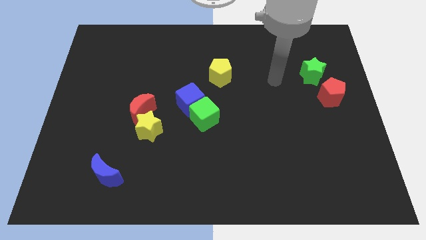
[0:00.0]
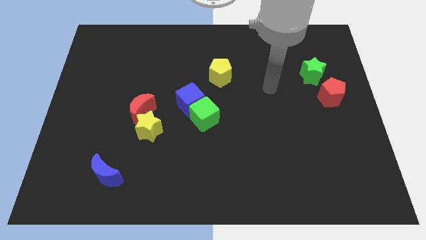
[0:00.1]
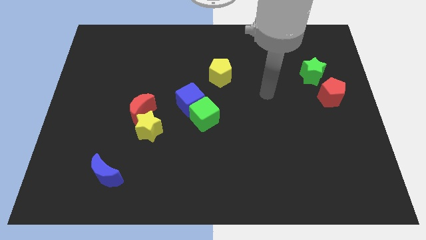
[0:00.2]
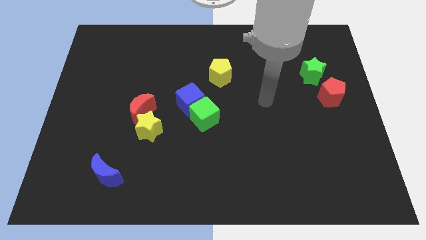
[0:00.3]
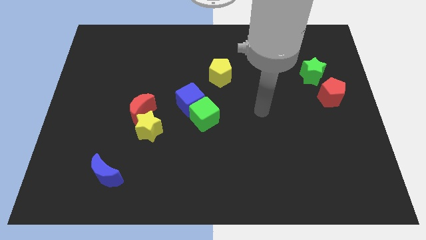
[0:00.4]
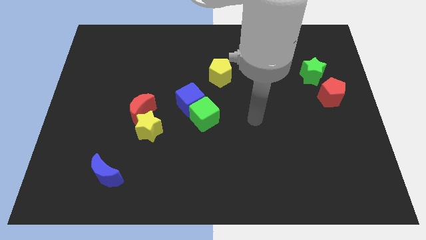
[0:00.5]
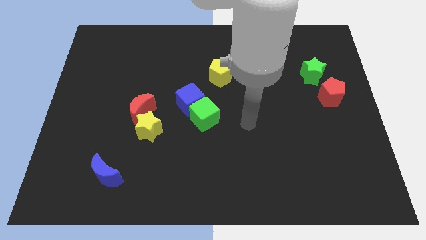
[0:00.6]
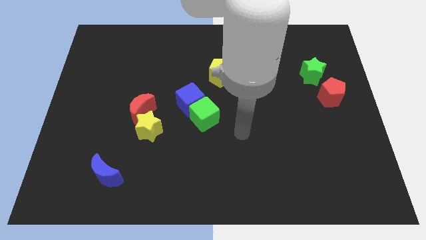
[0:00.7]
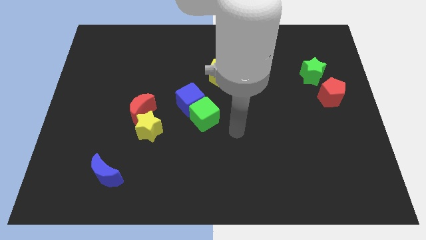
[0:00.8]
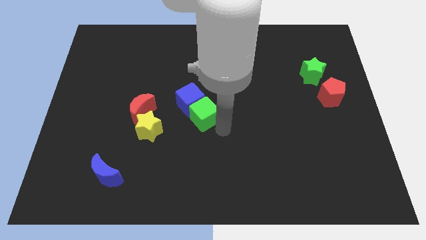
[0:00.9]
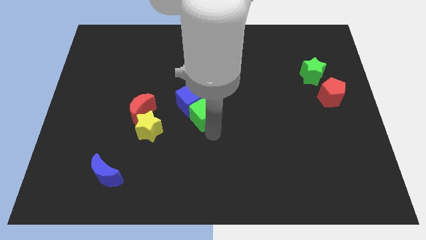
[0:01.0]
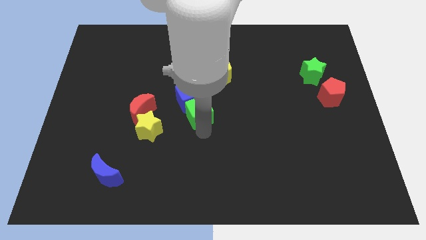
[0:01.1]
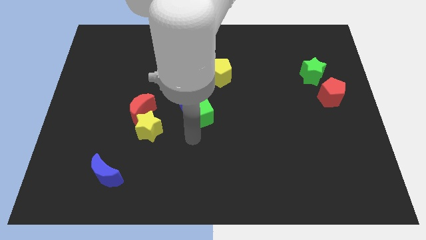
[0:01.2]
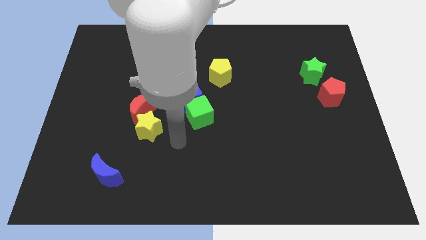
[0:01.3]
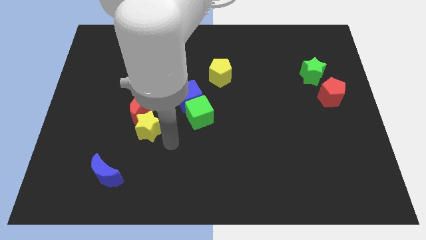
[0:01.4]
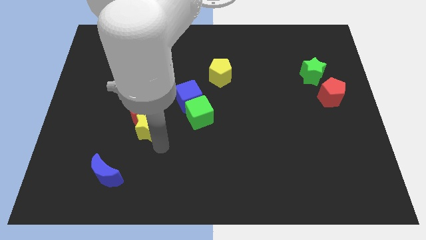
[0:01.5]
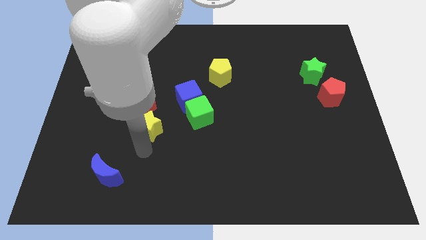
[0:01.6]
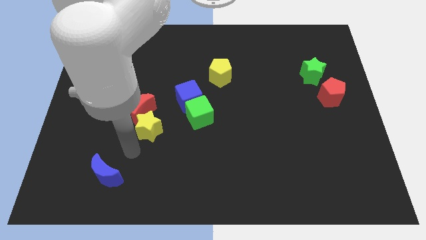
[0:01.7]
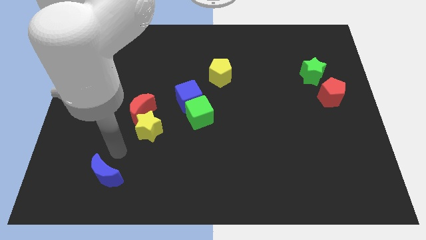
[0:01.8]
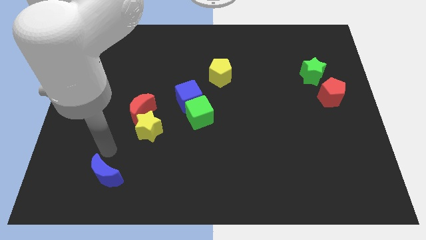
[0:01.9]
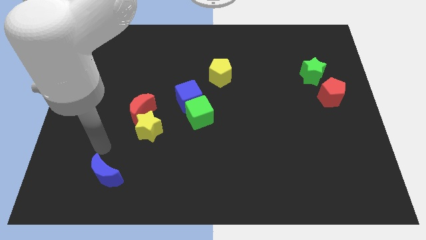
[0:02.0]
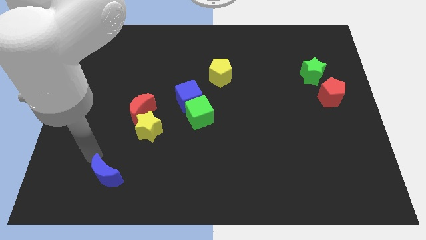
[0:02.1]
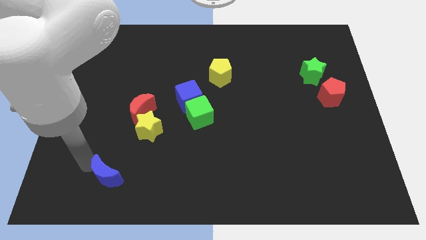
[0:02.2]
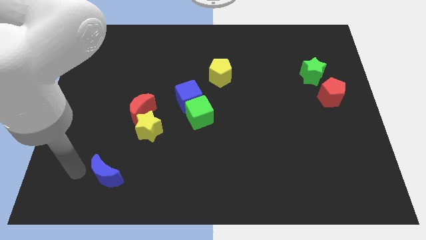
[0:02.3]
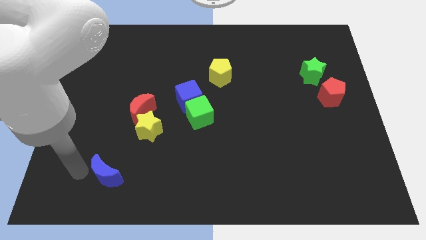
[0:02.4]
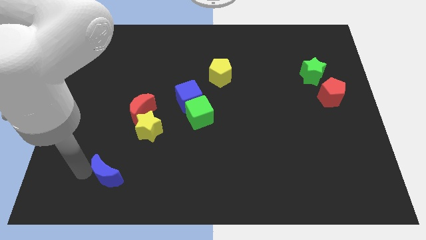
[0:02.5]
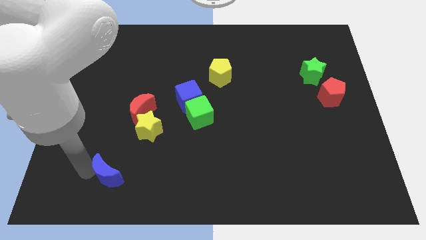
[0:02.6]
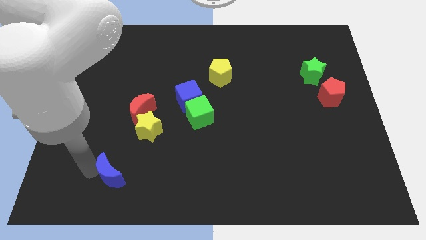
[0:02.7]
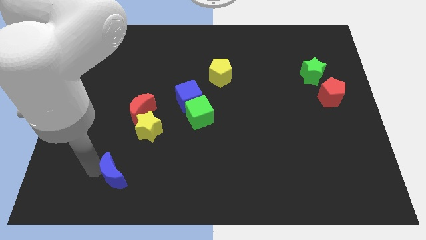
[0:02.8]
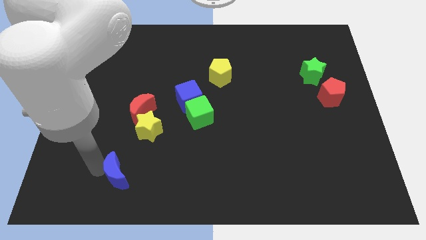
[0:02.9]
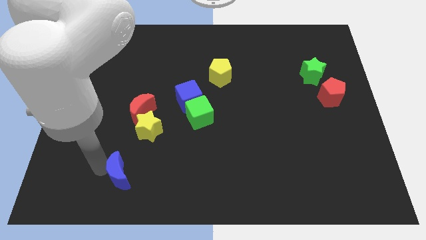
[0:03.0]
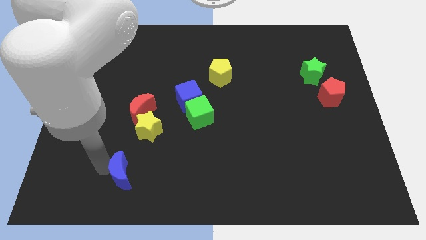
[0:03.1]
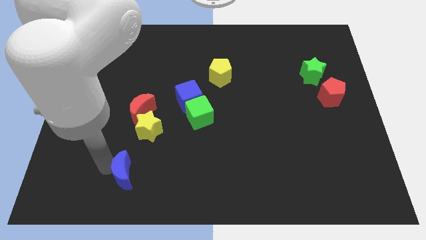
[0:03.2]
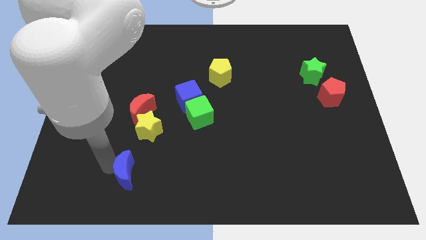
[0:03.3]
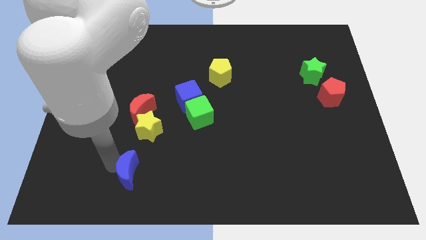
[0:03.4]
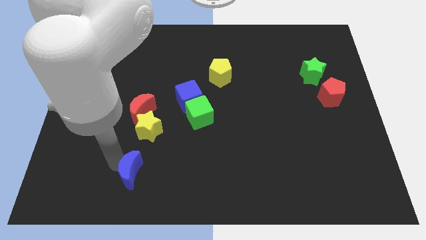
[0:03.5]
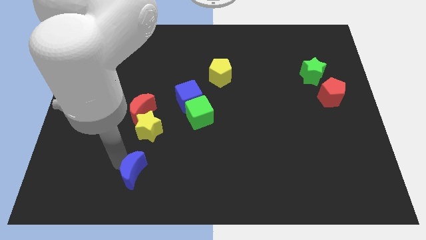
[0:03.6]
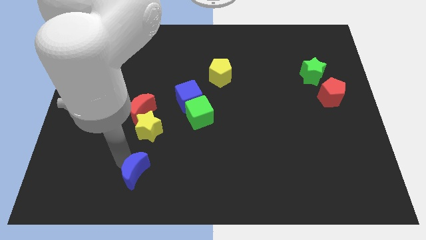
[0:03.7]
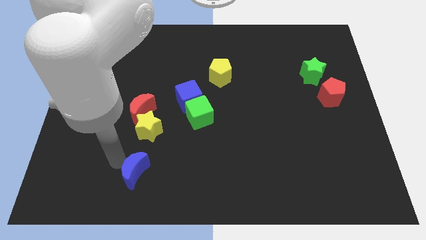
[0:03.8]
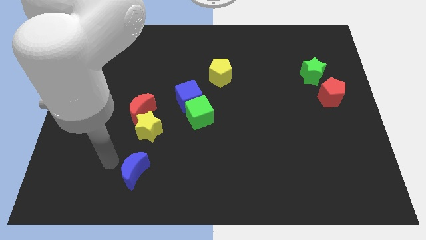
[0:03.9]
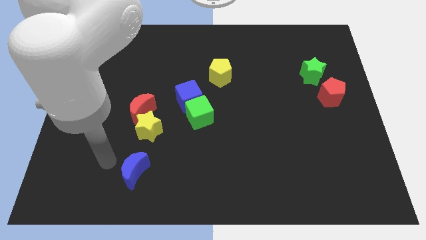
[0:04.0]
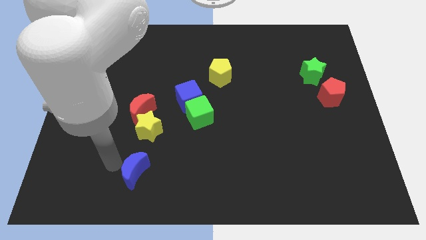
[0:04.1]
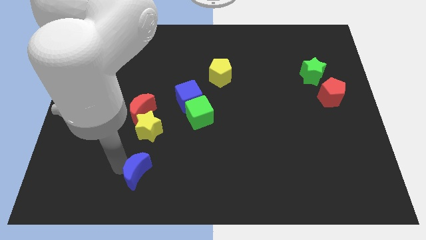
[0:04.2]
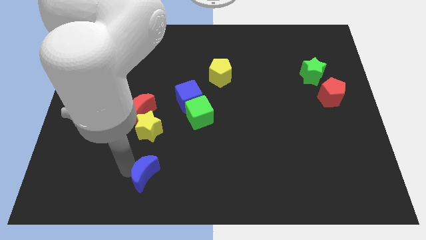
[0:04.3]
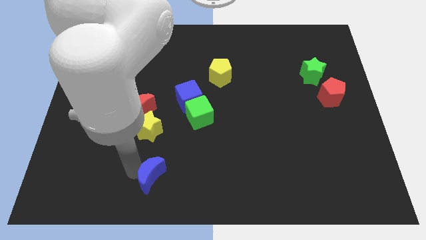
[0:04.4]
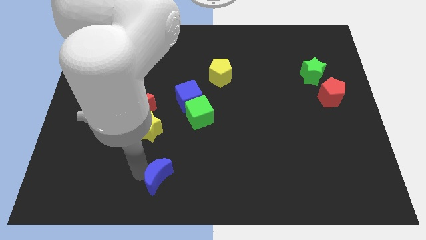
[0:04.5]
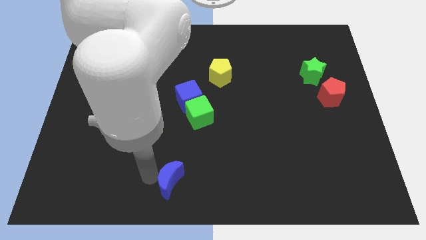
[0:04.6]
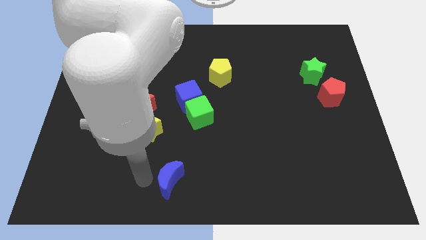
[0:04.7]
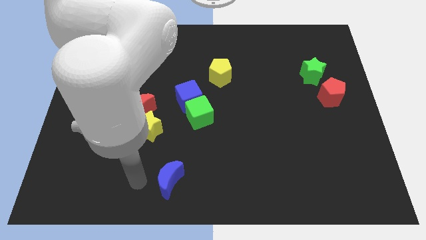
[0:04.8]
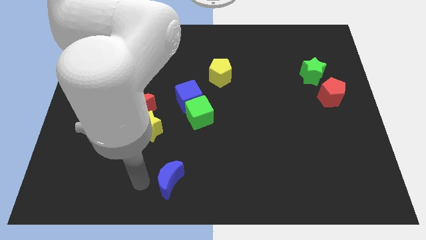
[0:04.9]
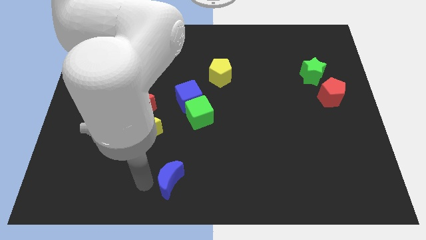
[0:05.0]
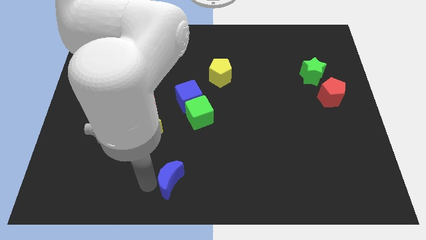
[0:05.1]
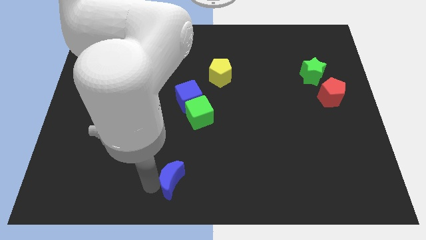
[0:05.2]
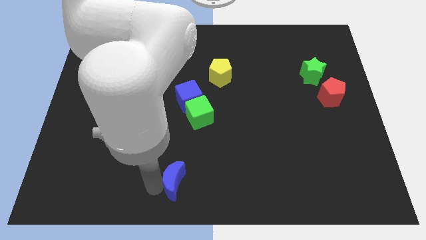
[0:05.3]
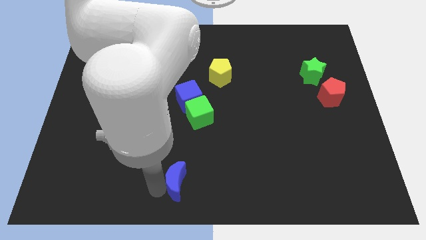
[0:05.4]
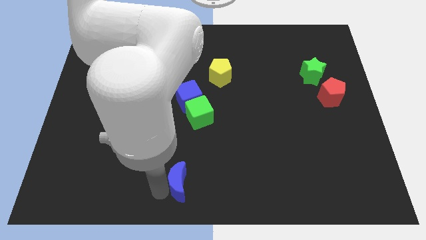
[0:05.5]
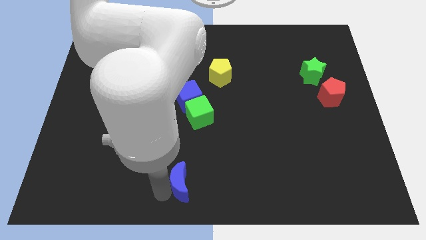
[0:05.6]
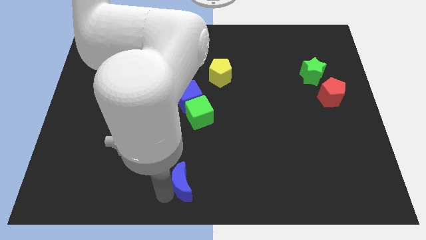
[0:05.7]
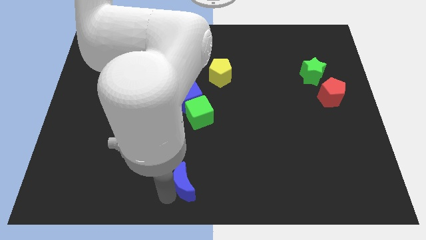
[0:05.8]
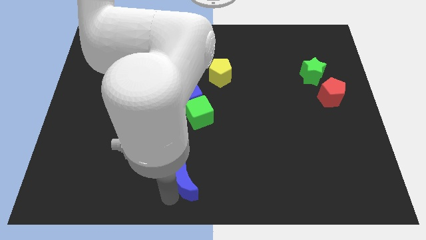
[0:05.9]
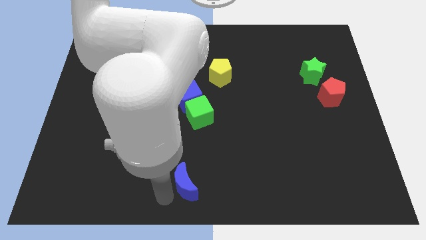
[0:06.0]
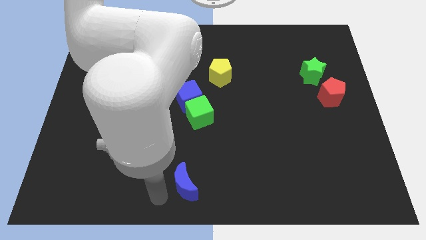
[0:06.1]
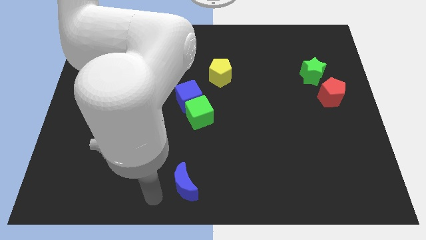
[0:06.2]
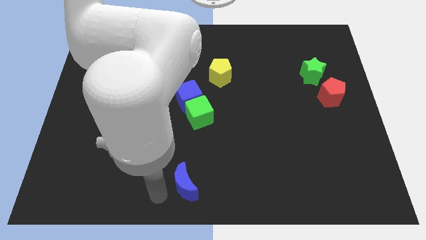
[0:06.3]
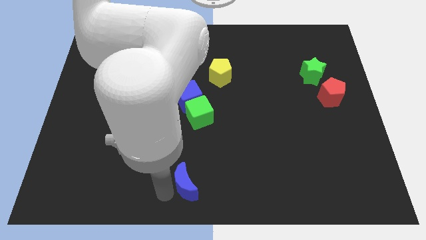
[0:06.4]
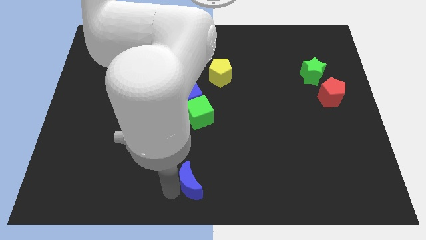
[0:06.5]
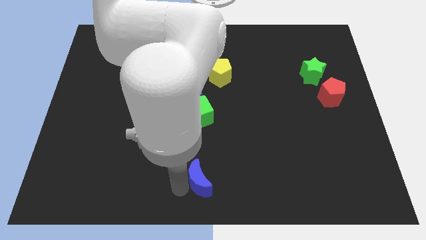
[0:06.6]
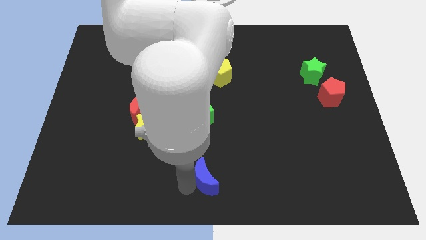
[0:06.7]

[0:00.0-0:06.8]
push the blue moon right

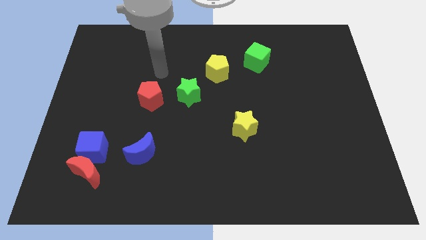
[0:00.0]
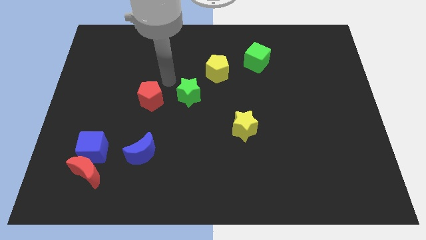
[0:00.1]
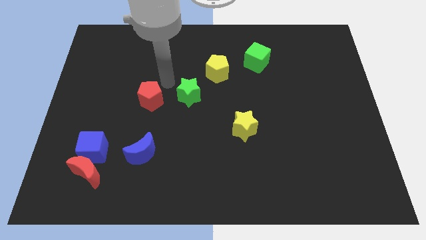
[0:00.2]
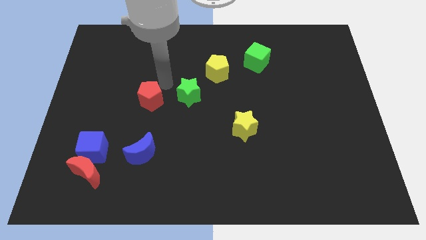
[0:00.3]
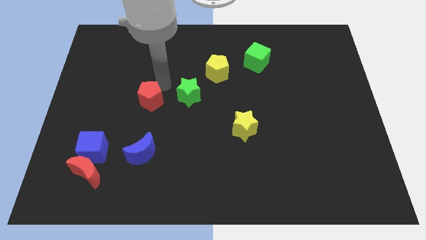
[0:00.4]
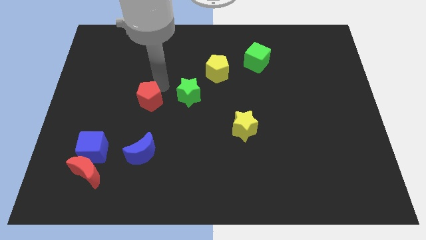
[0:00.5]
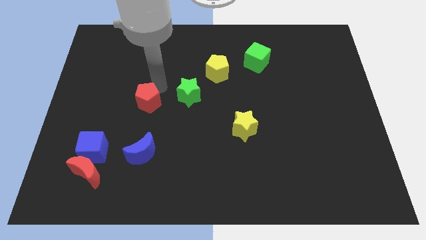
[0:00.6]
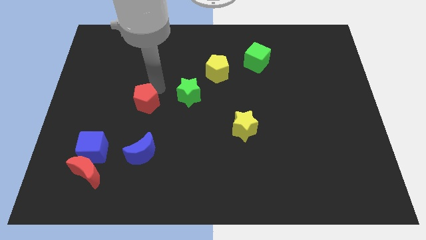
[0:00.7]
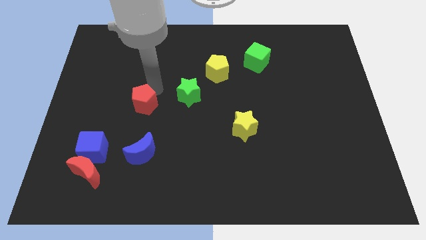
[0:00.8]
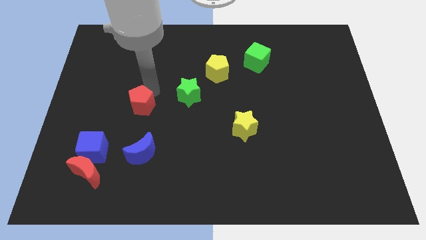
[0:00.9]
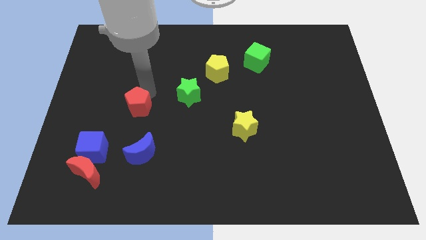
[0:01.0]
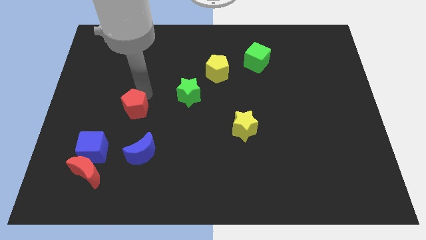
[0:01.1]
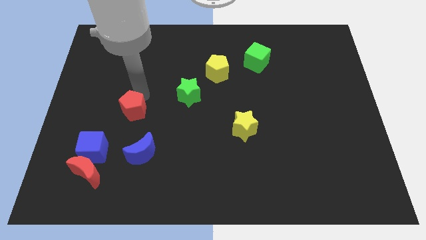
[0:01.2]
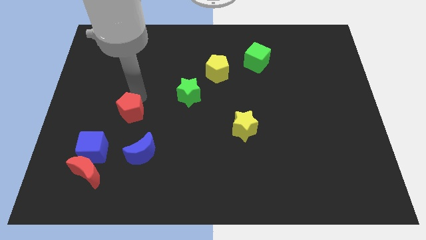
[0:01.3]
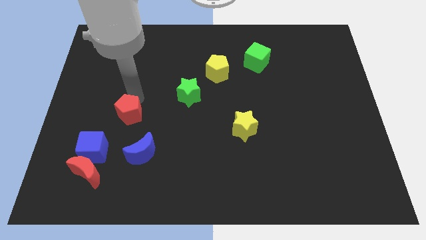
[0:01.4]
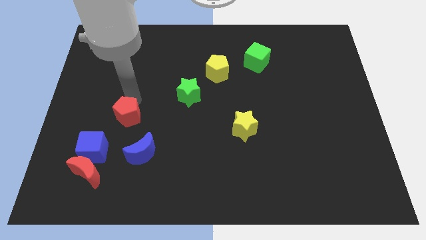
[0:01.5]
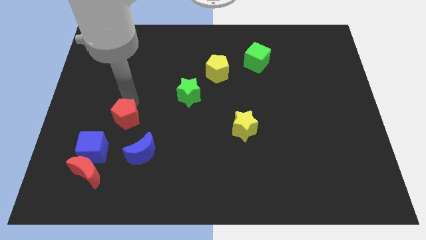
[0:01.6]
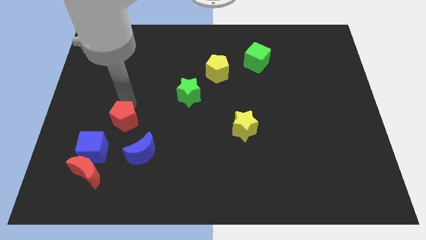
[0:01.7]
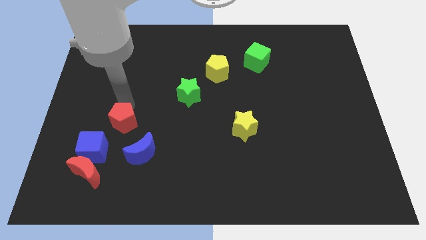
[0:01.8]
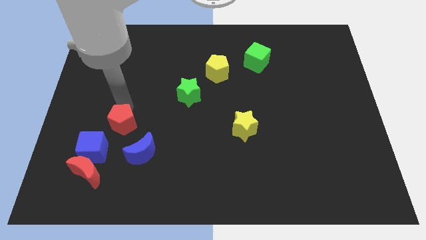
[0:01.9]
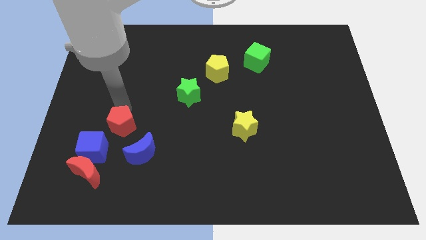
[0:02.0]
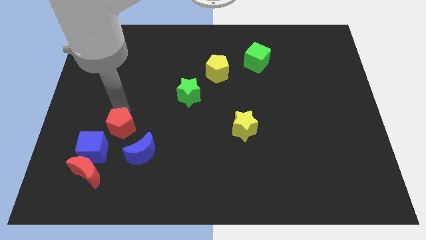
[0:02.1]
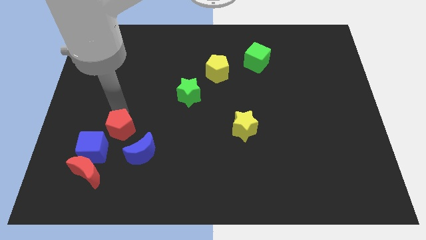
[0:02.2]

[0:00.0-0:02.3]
move the red pentagon slightly downwards
